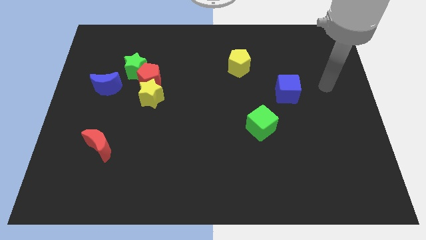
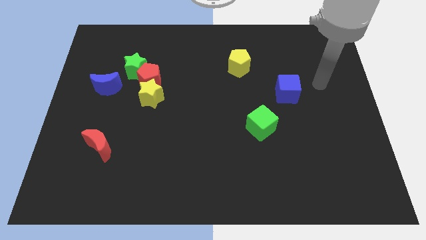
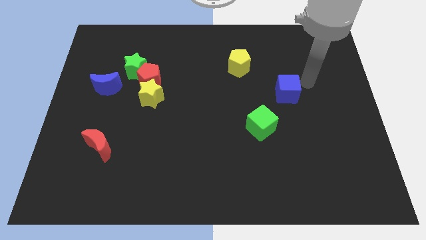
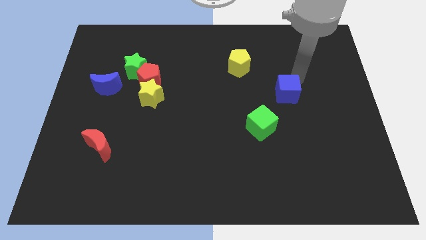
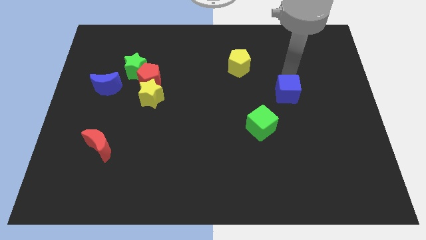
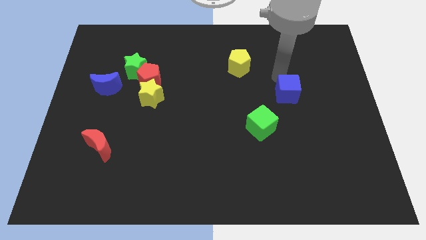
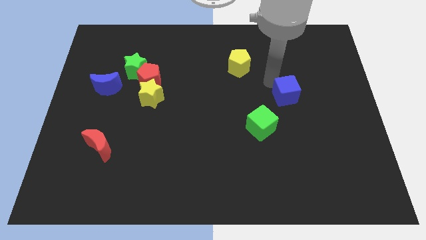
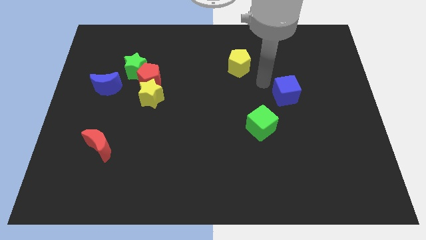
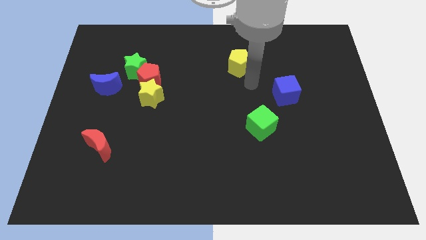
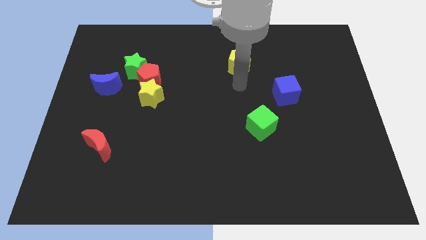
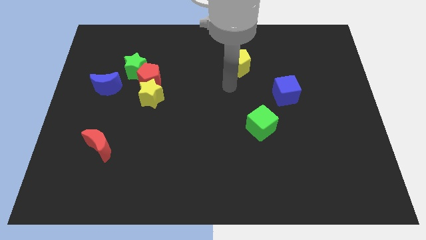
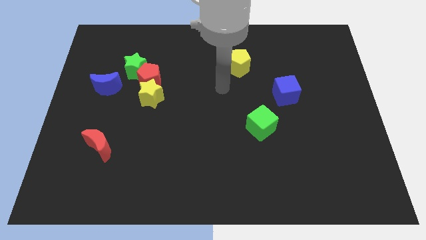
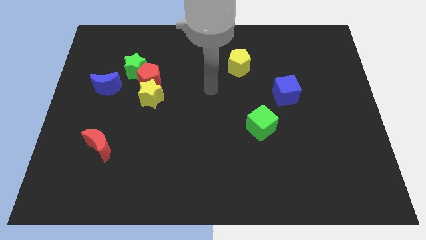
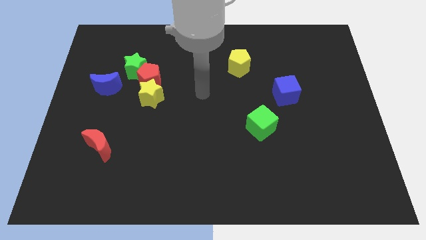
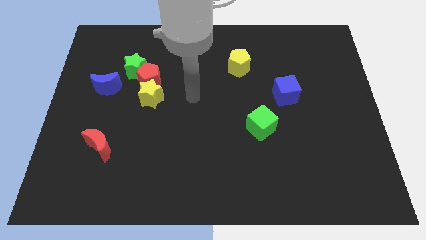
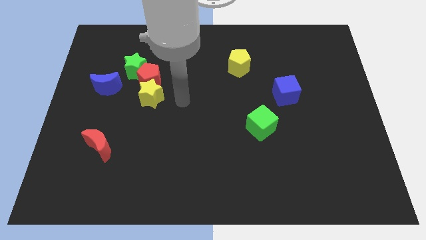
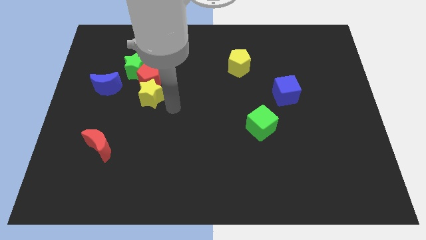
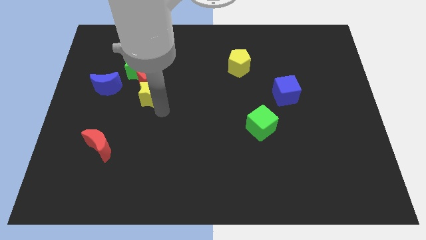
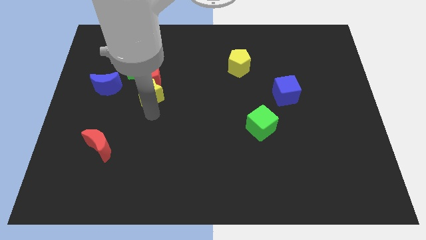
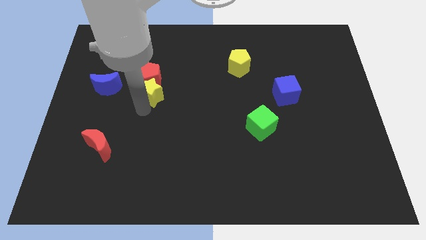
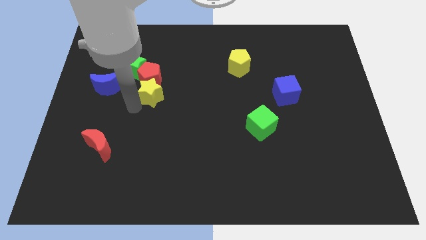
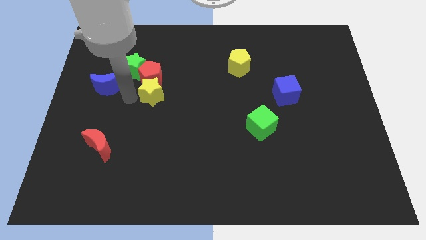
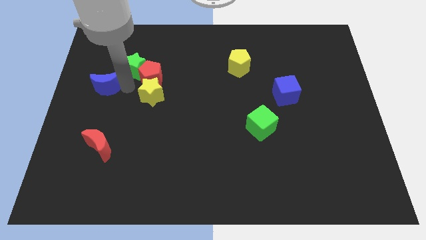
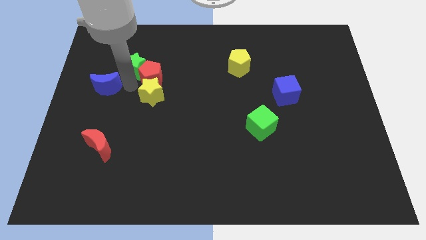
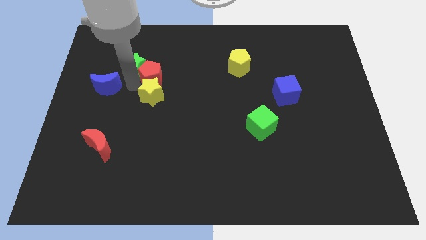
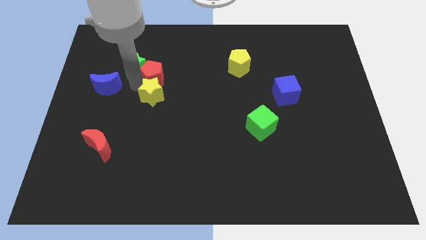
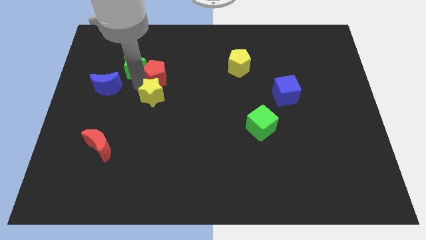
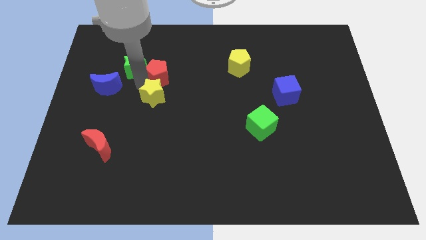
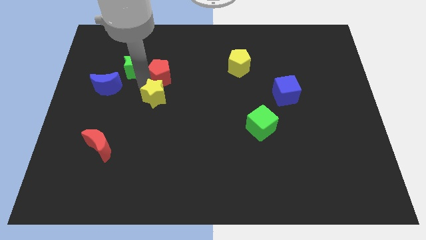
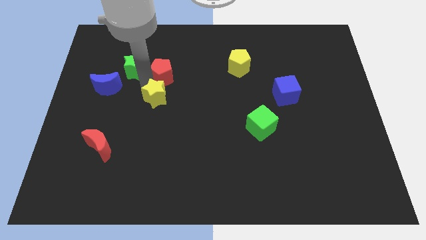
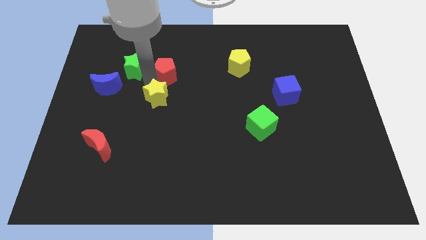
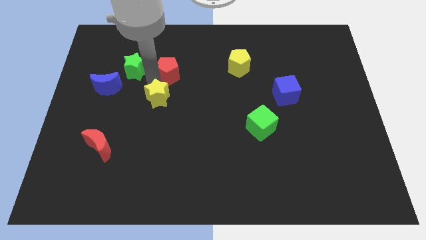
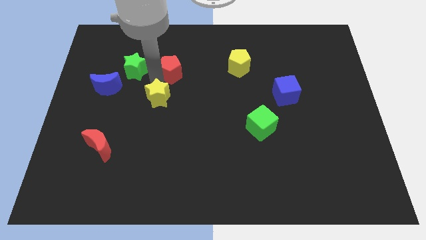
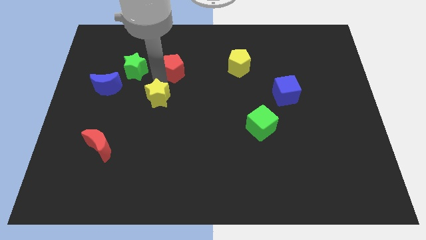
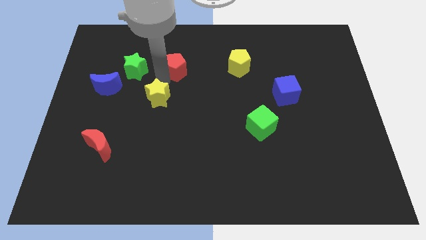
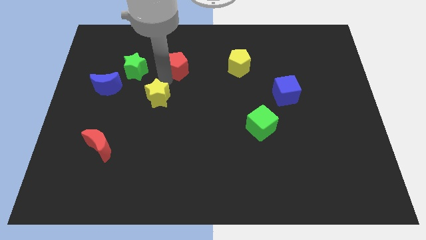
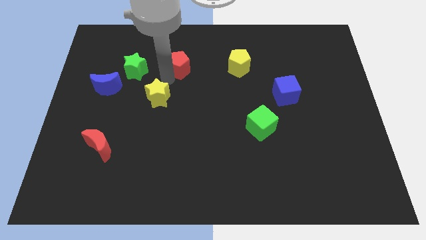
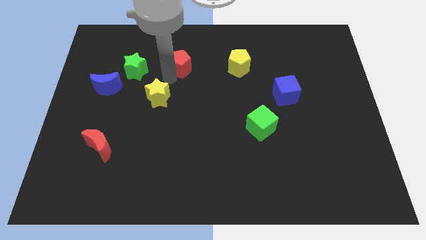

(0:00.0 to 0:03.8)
pull the red pentagon apart from the green star and yellow star

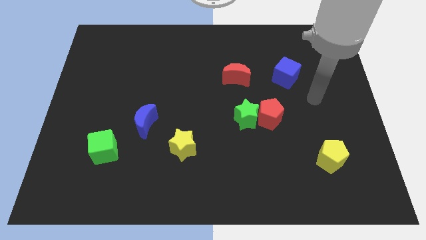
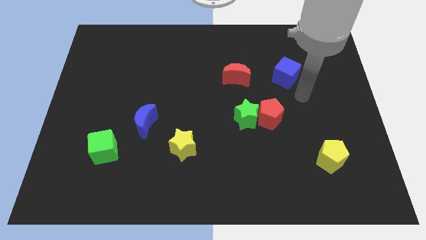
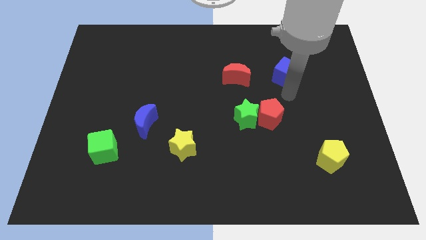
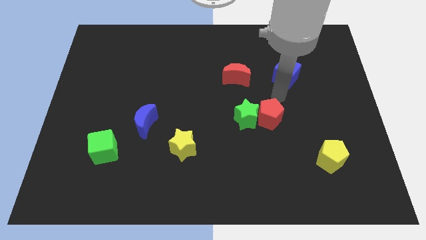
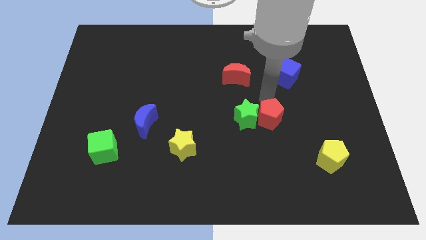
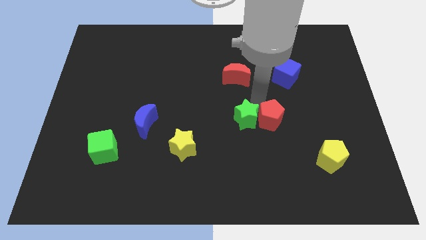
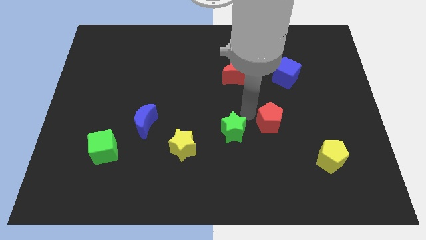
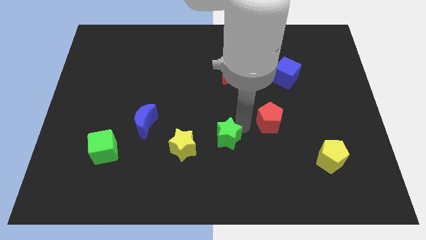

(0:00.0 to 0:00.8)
pull the red pentagon apart from the green star

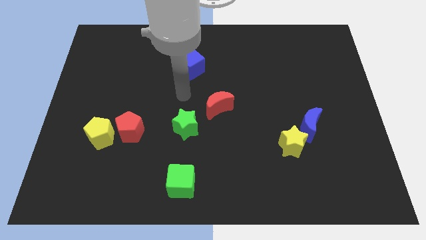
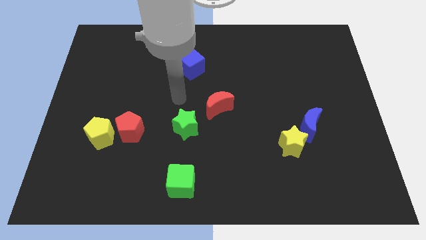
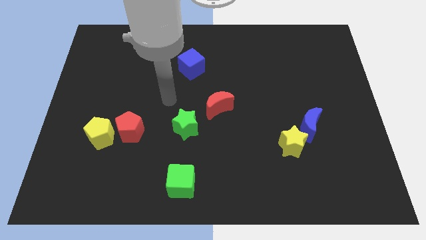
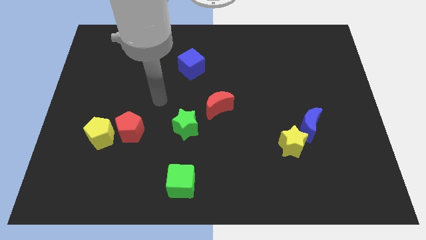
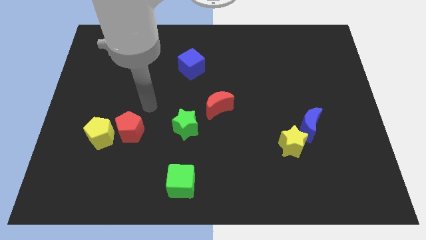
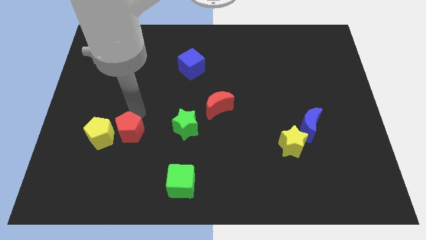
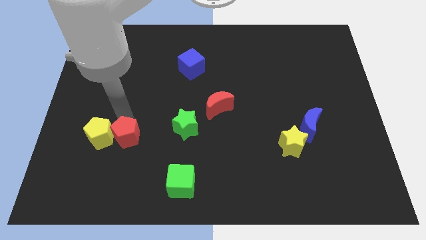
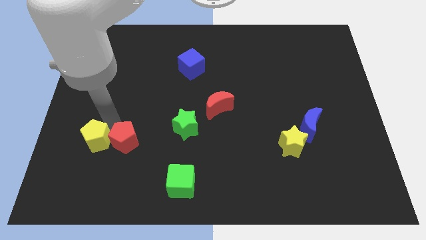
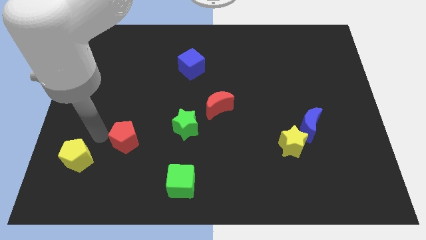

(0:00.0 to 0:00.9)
separate the red pentagon from the yellow pentagon

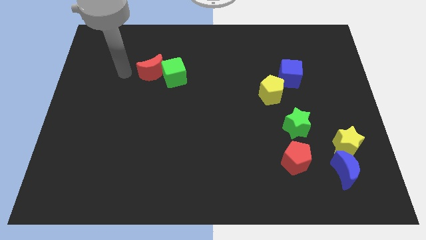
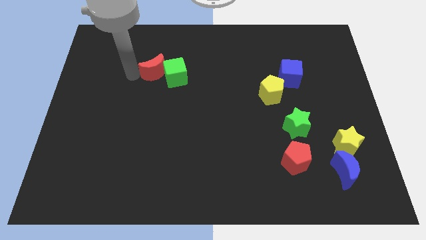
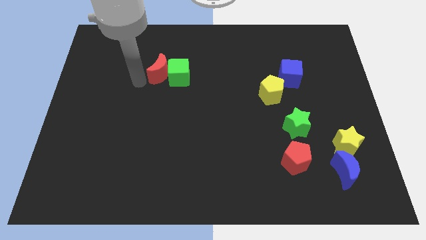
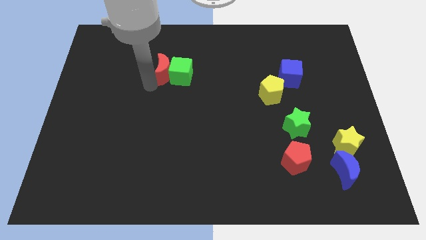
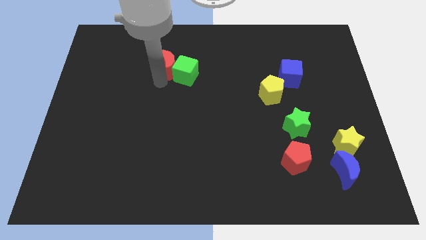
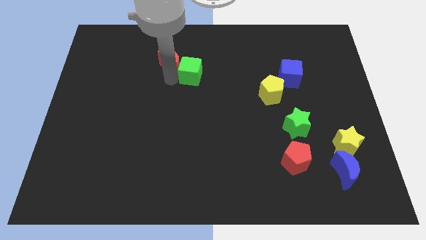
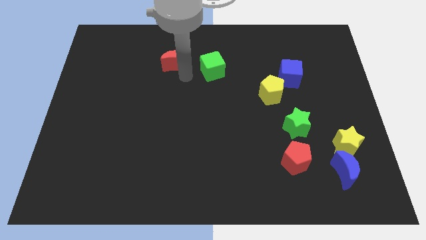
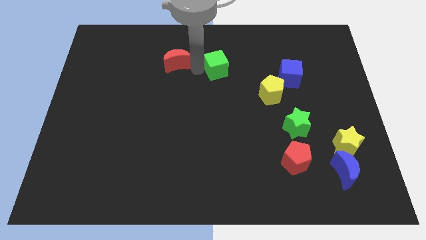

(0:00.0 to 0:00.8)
move the red moon away from the green cube

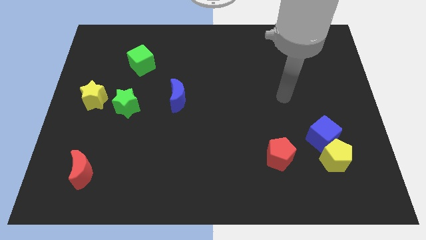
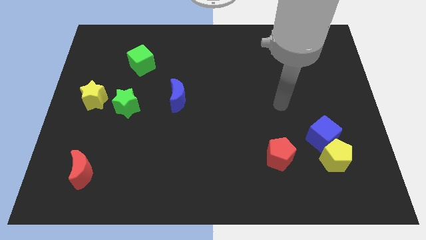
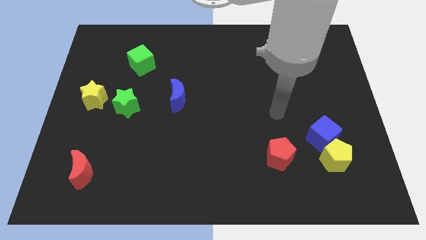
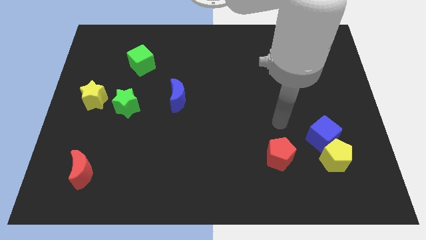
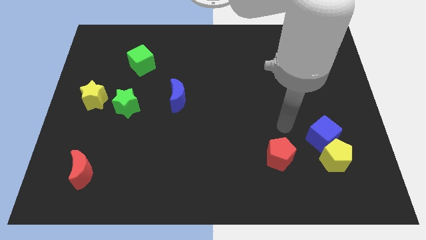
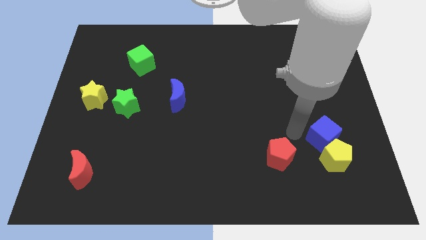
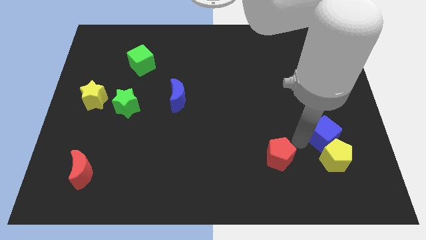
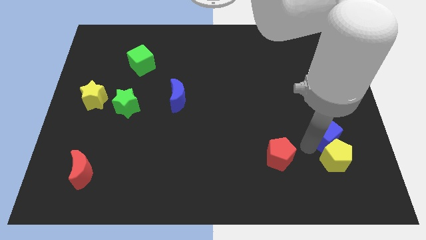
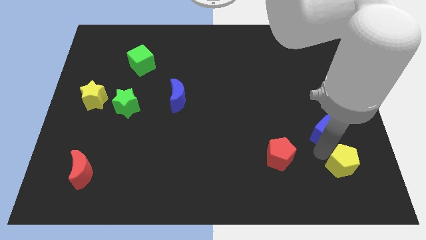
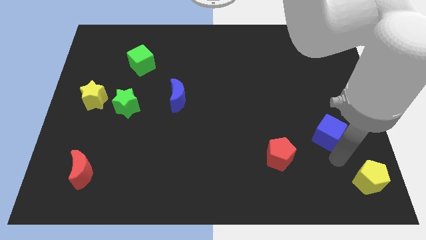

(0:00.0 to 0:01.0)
separate the blue cube from the yellow pentagon

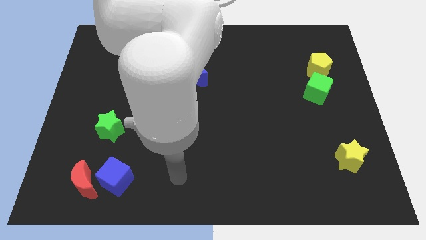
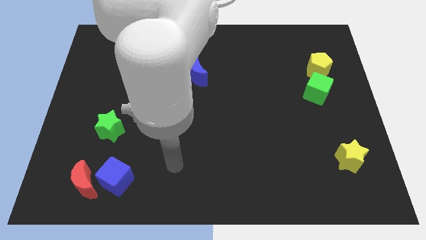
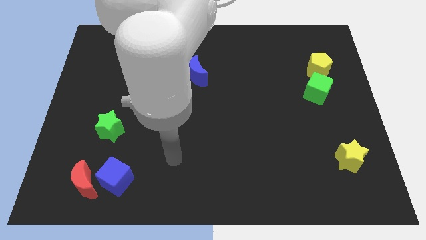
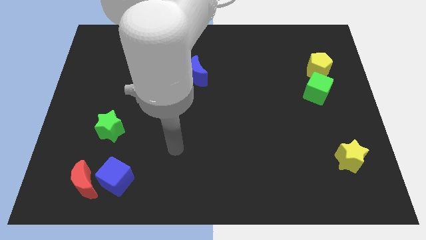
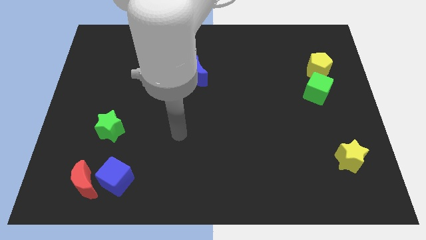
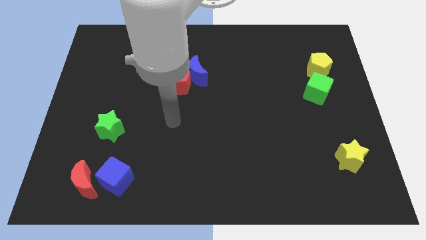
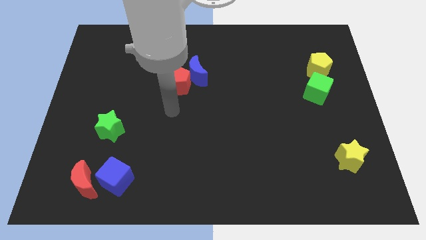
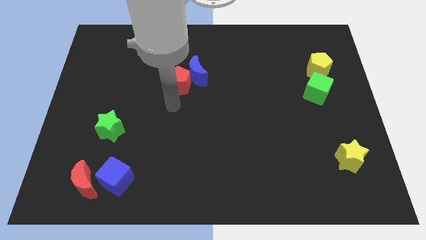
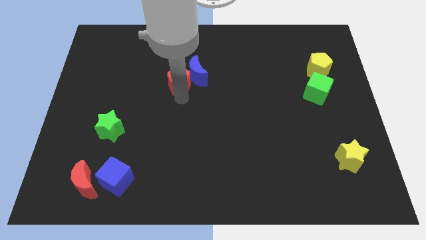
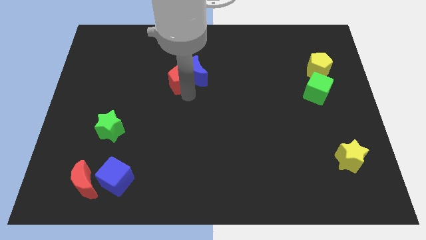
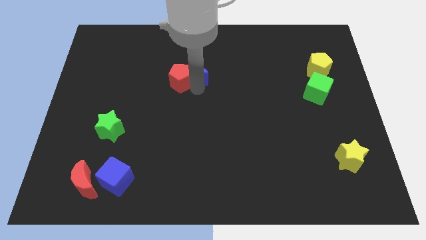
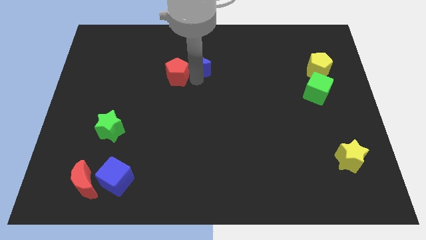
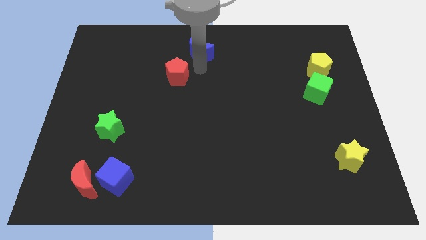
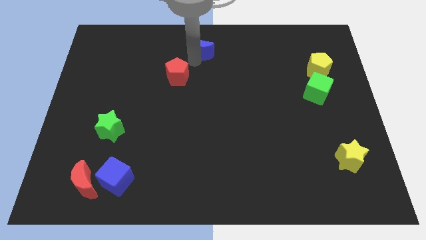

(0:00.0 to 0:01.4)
separate the red pentagon from the blue moon

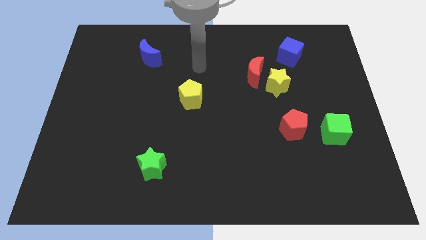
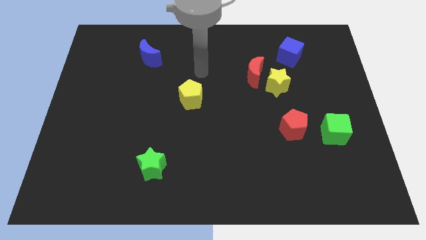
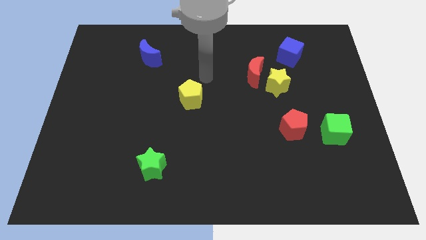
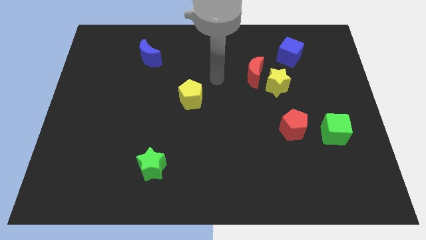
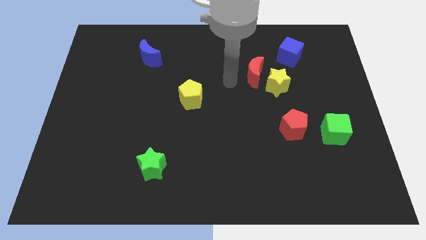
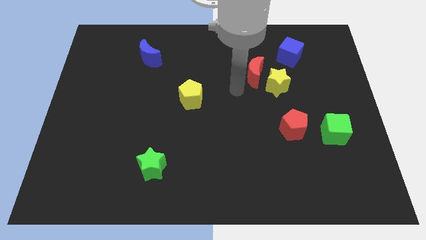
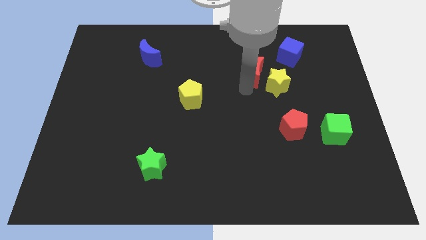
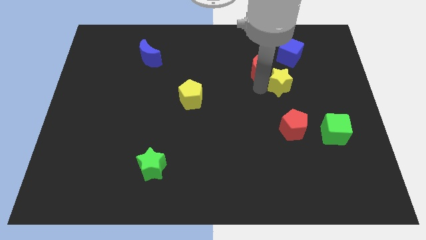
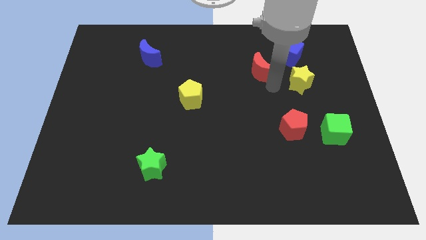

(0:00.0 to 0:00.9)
separate the red moon from the yellow star
